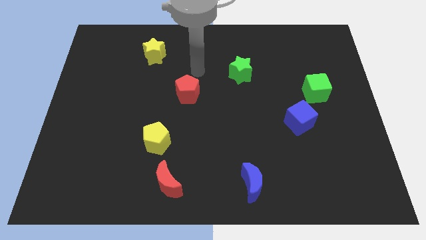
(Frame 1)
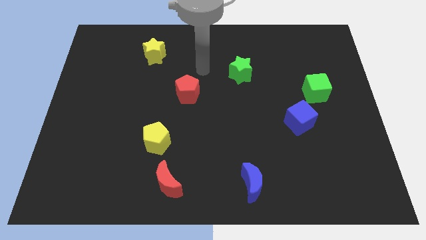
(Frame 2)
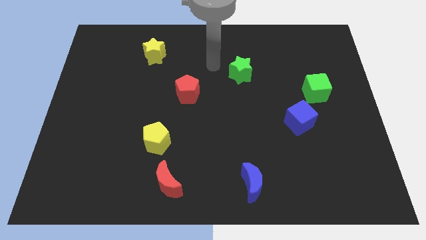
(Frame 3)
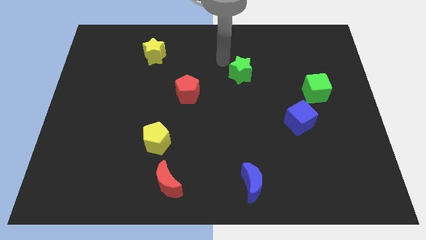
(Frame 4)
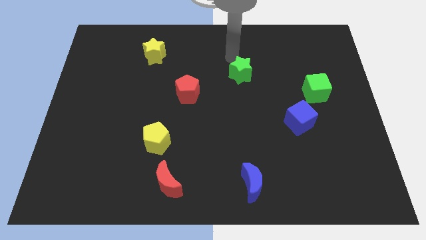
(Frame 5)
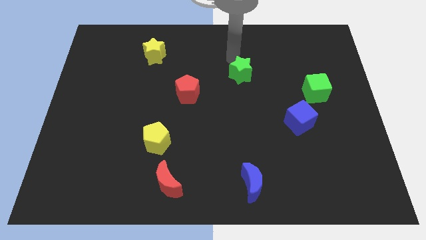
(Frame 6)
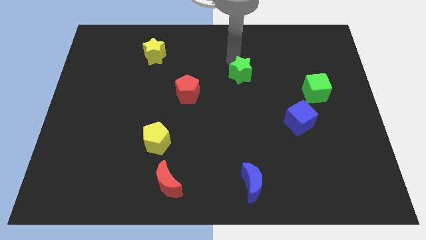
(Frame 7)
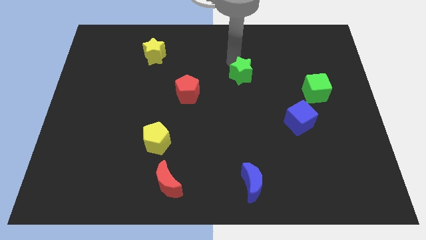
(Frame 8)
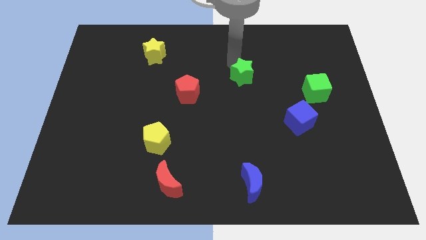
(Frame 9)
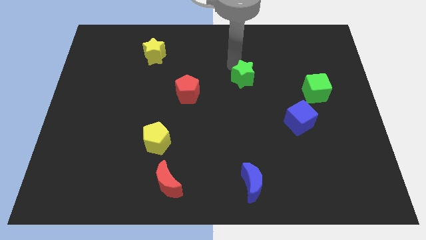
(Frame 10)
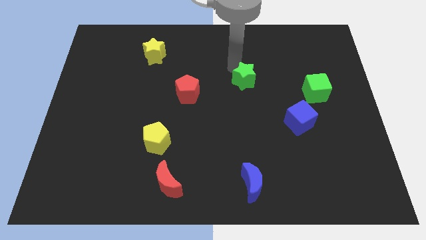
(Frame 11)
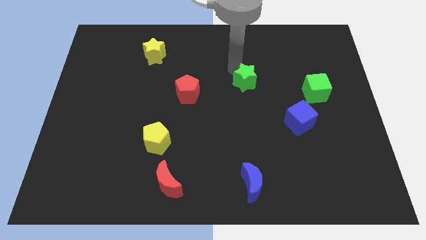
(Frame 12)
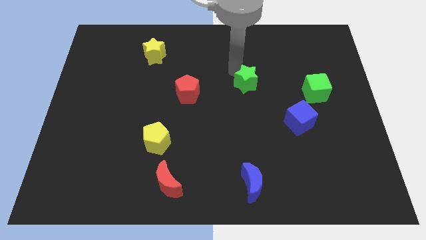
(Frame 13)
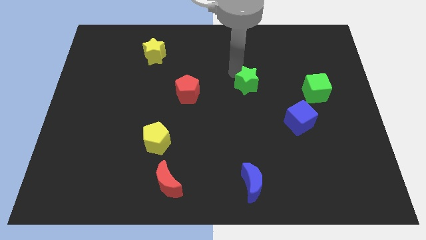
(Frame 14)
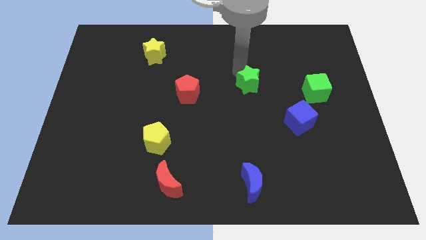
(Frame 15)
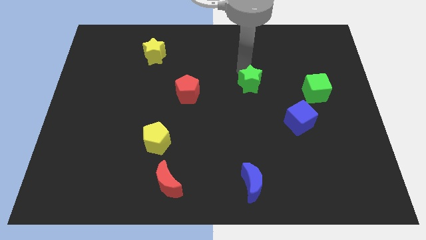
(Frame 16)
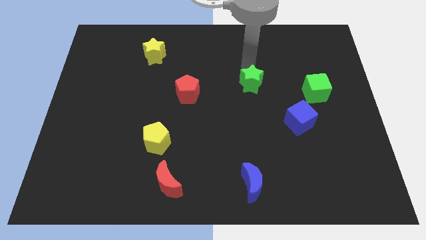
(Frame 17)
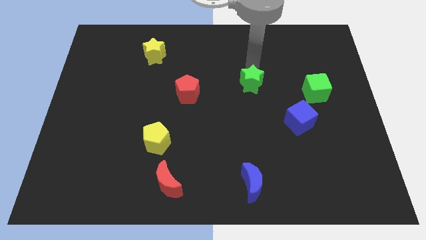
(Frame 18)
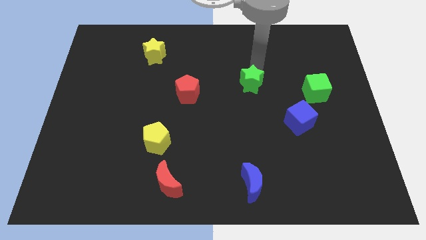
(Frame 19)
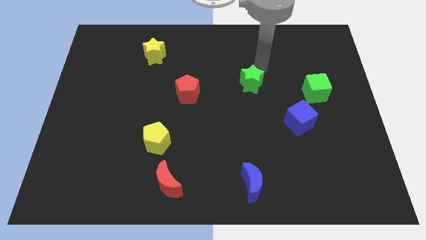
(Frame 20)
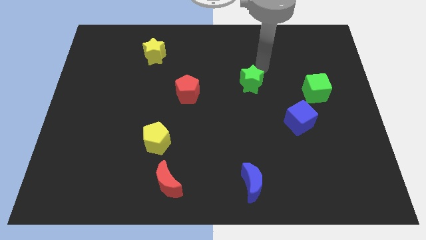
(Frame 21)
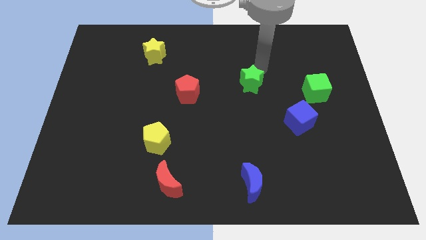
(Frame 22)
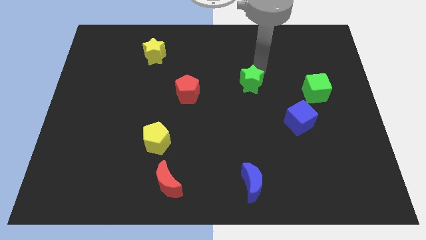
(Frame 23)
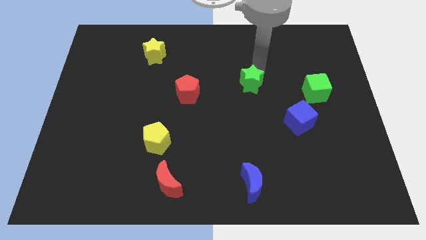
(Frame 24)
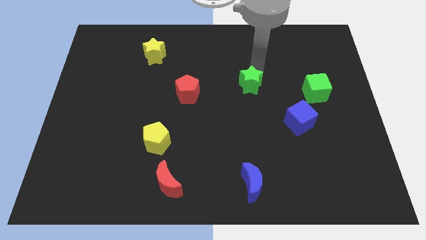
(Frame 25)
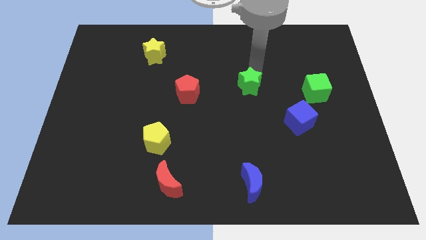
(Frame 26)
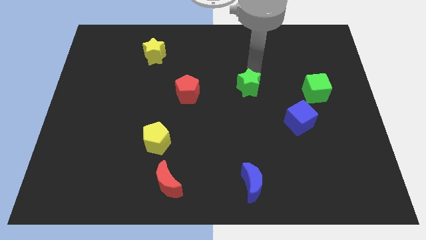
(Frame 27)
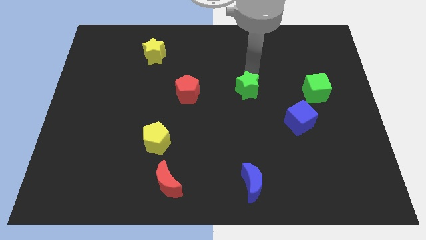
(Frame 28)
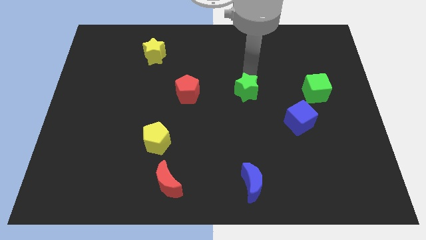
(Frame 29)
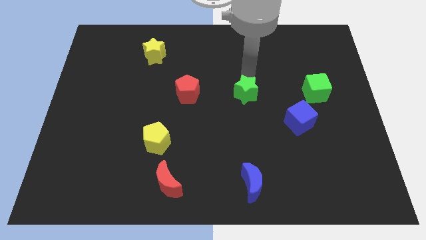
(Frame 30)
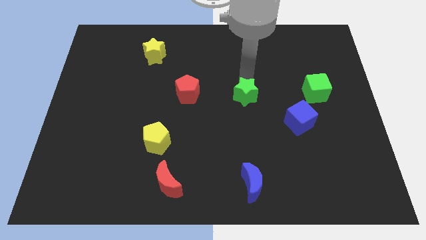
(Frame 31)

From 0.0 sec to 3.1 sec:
move the green star a bit downwards

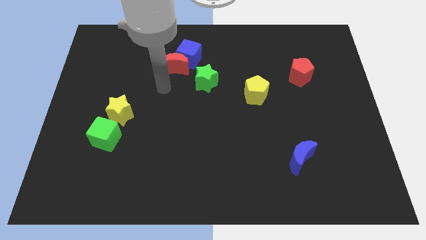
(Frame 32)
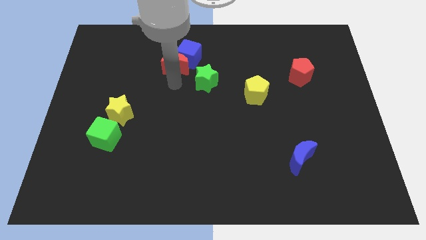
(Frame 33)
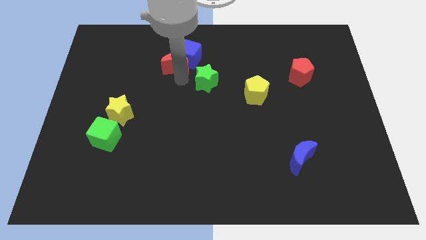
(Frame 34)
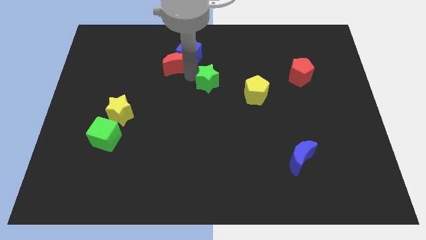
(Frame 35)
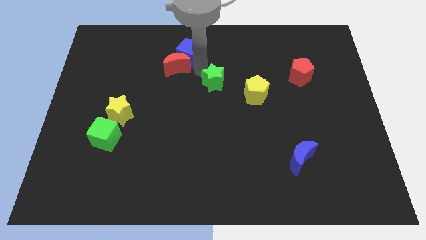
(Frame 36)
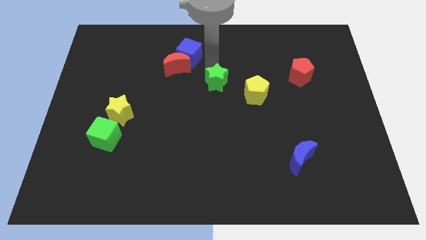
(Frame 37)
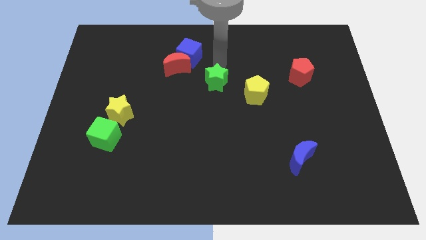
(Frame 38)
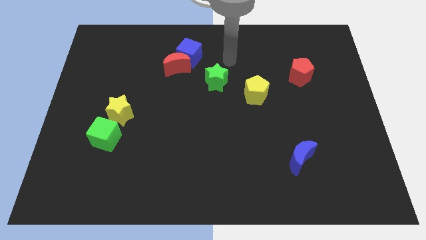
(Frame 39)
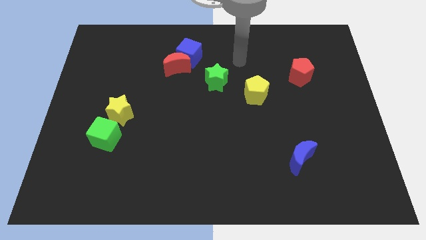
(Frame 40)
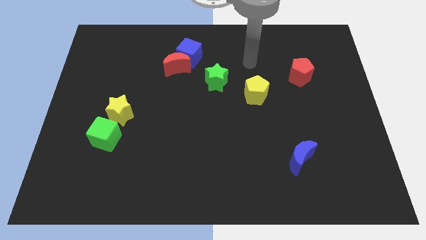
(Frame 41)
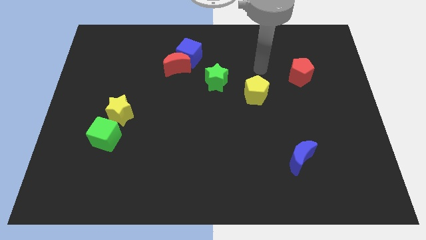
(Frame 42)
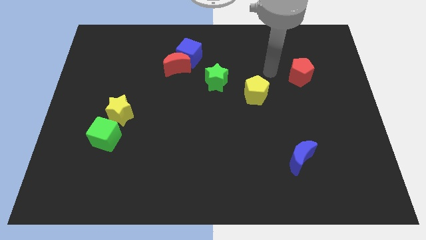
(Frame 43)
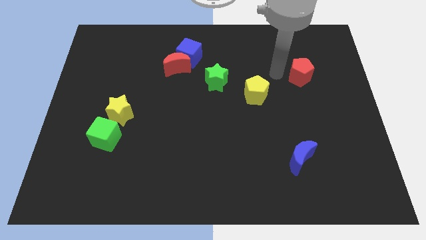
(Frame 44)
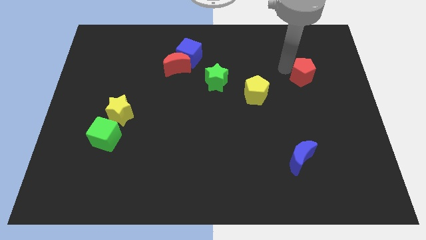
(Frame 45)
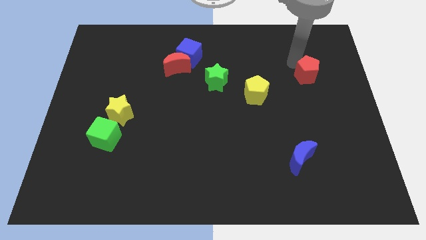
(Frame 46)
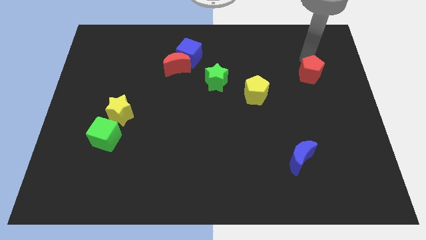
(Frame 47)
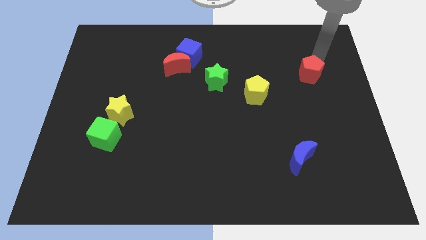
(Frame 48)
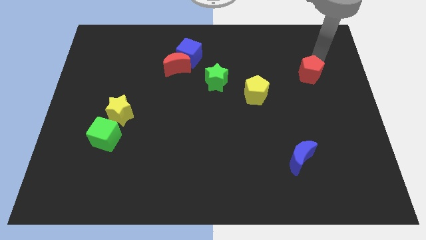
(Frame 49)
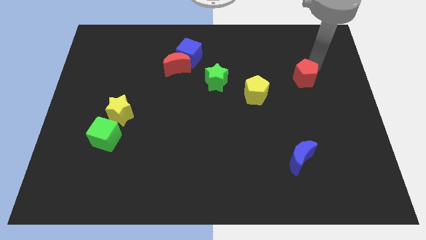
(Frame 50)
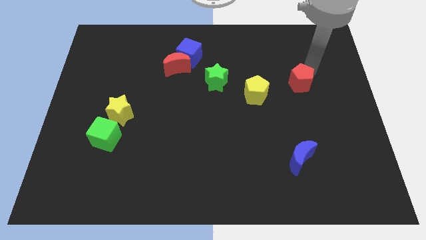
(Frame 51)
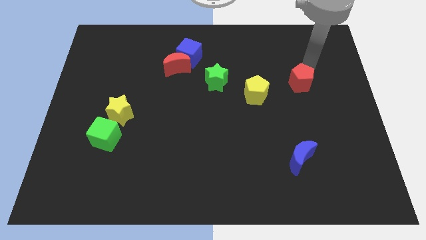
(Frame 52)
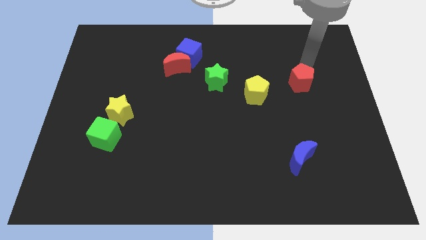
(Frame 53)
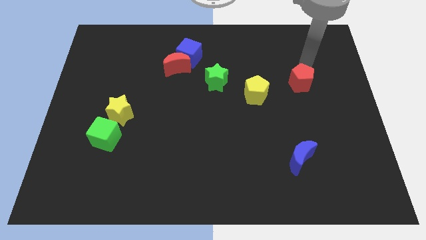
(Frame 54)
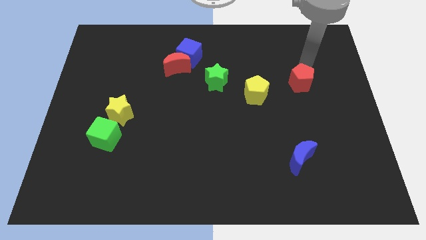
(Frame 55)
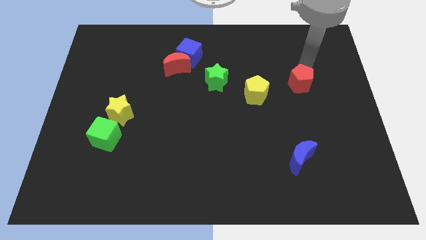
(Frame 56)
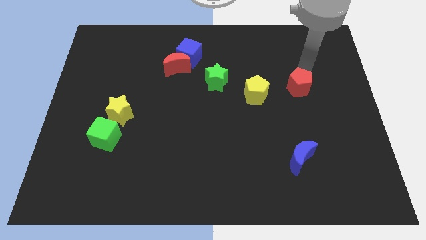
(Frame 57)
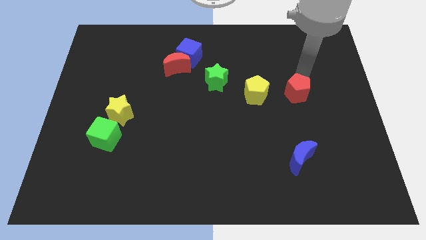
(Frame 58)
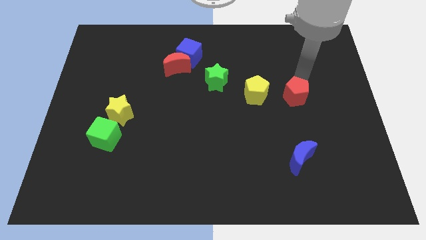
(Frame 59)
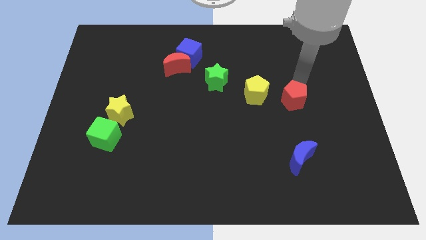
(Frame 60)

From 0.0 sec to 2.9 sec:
slide the red pentagon downwards a little

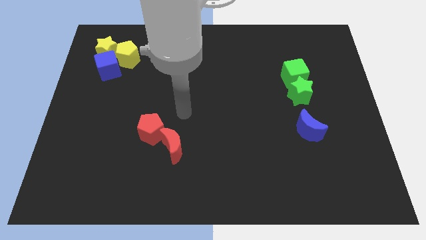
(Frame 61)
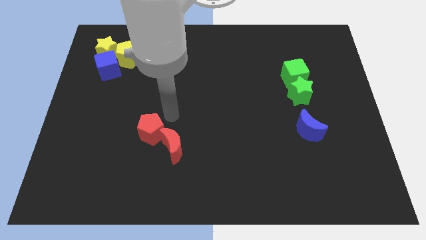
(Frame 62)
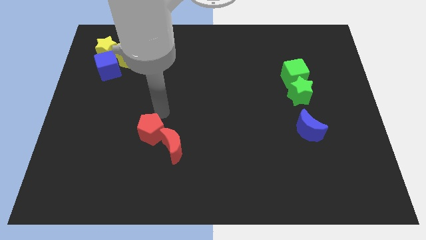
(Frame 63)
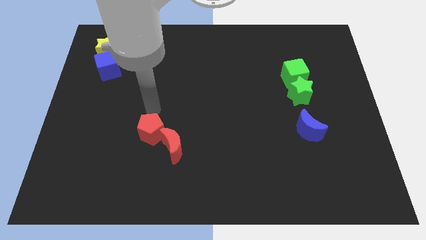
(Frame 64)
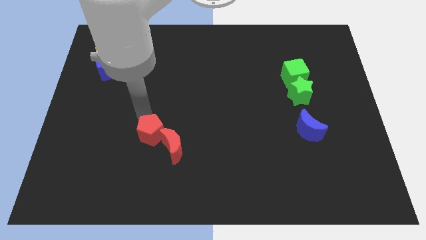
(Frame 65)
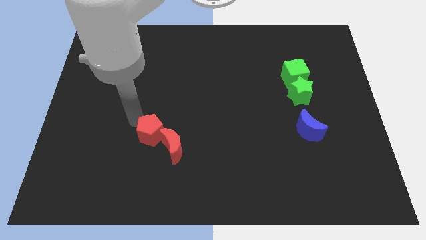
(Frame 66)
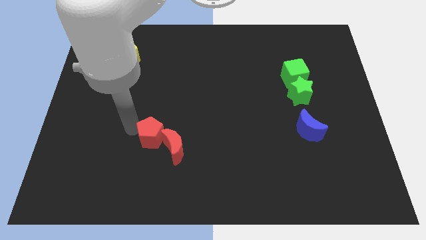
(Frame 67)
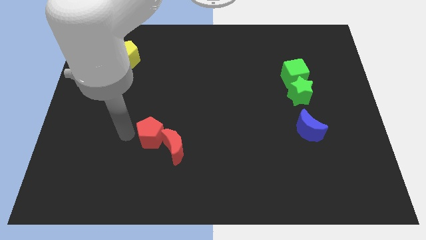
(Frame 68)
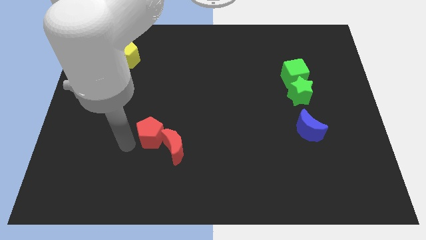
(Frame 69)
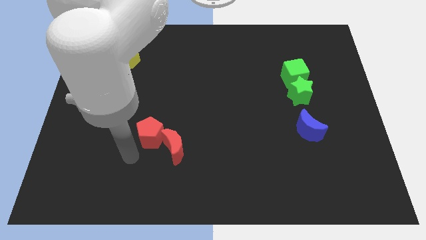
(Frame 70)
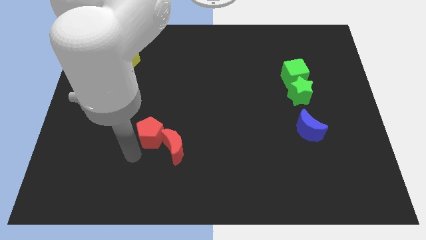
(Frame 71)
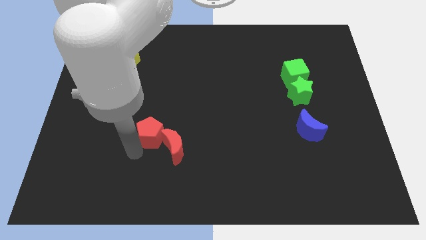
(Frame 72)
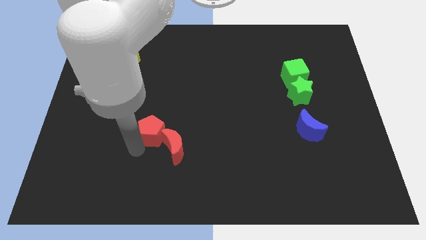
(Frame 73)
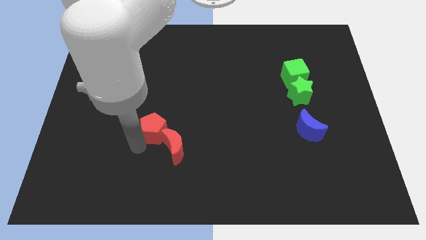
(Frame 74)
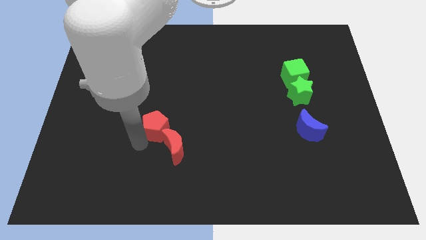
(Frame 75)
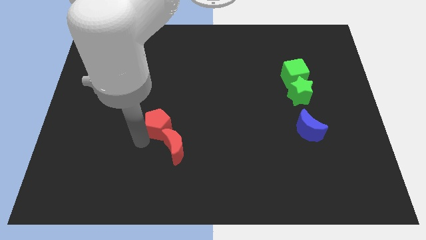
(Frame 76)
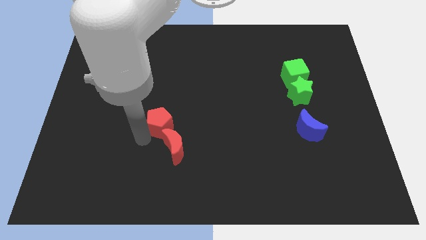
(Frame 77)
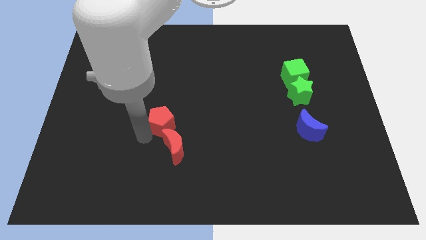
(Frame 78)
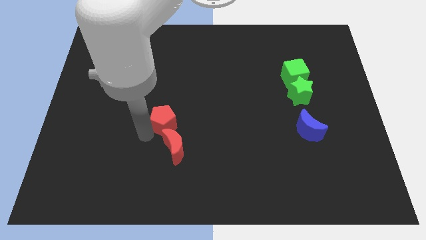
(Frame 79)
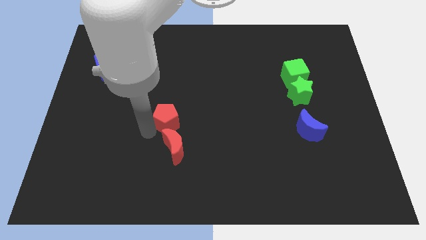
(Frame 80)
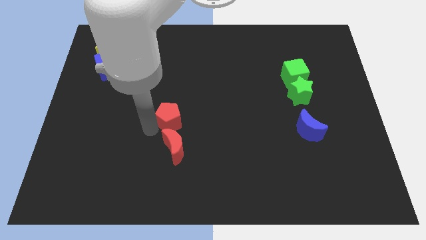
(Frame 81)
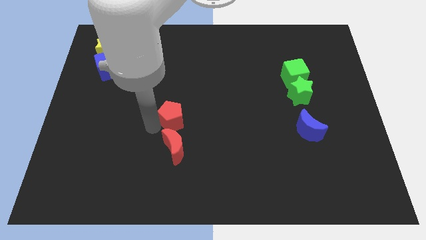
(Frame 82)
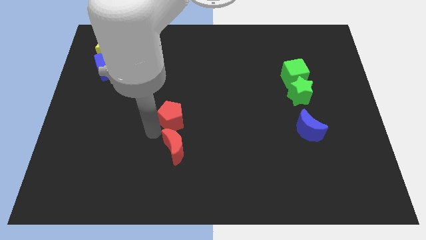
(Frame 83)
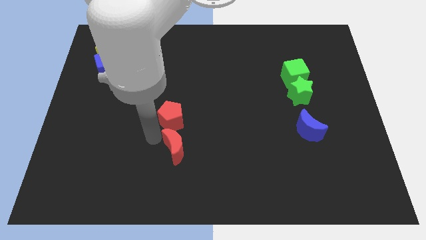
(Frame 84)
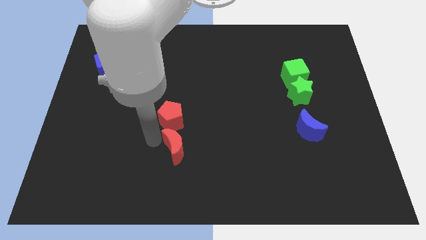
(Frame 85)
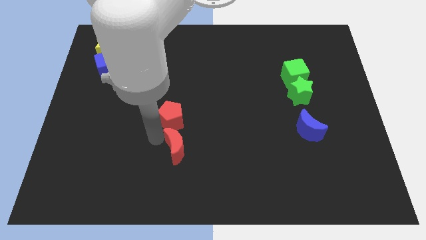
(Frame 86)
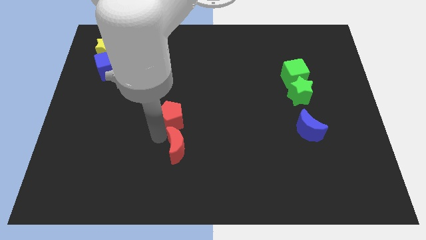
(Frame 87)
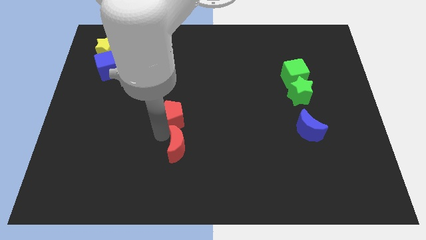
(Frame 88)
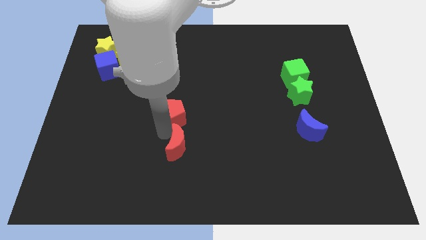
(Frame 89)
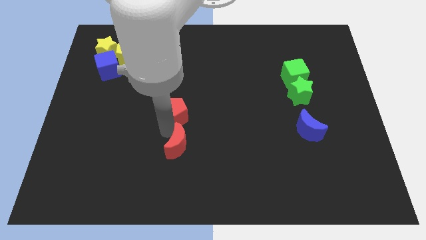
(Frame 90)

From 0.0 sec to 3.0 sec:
move the red pentagon up and to the right diagonally somewhat
